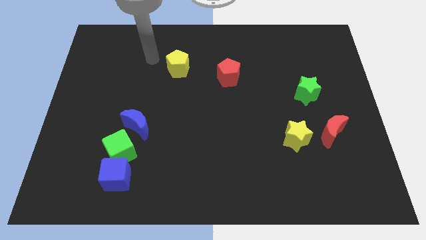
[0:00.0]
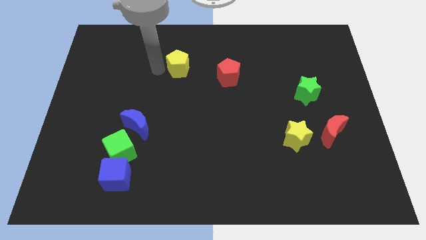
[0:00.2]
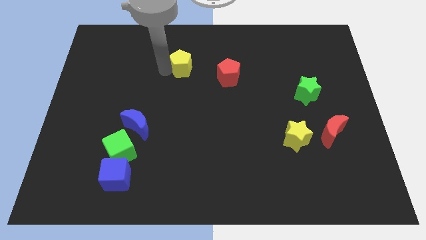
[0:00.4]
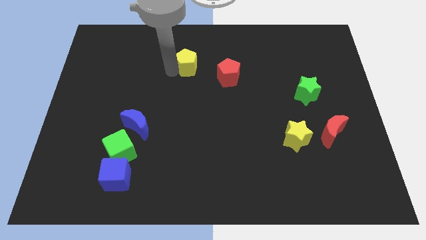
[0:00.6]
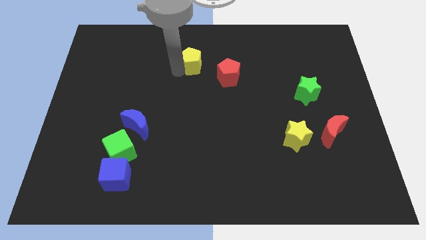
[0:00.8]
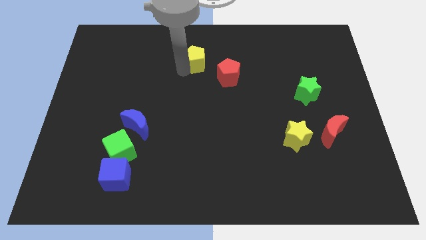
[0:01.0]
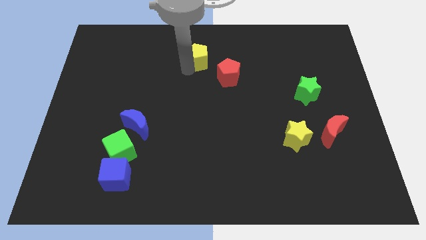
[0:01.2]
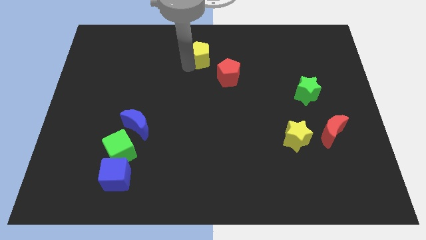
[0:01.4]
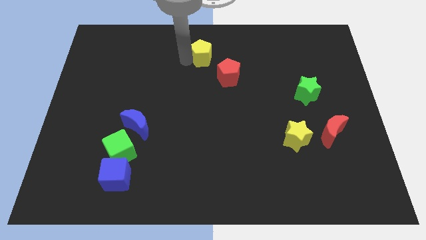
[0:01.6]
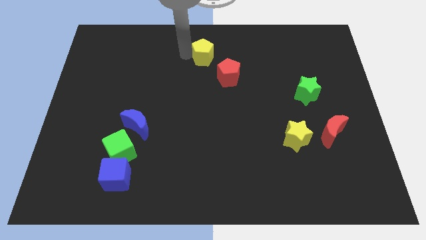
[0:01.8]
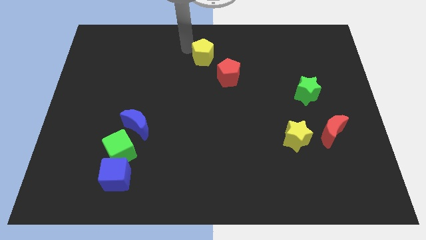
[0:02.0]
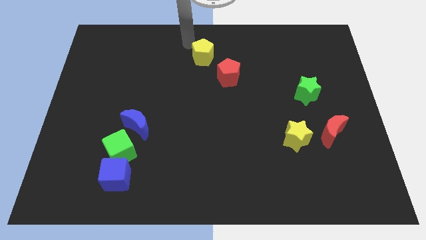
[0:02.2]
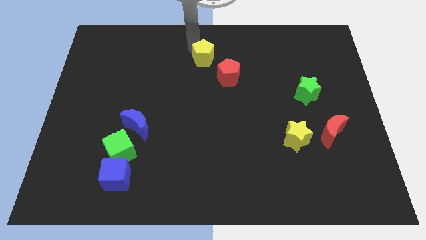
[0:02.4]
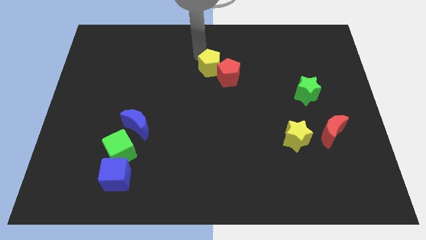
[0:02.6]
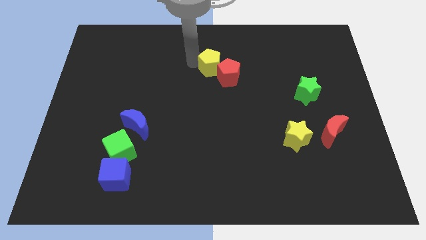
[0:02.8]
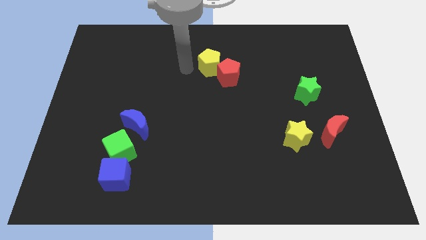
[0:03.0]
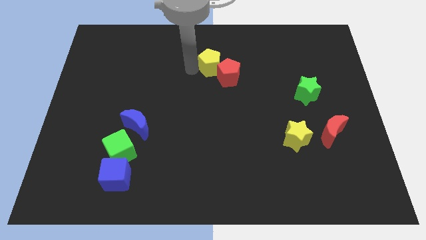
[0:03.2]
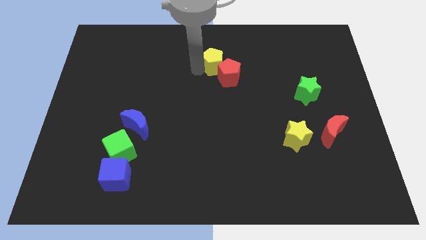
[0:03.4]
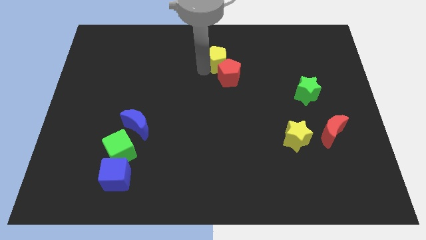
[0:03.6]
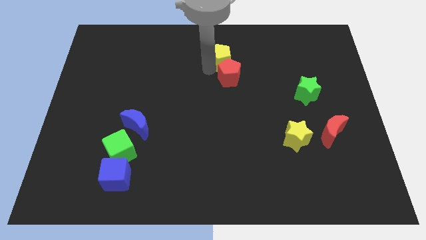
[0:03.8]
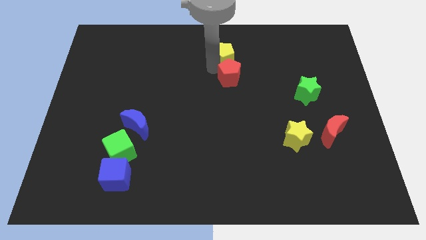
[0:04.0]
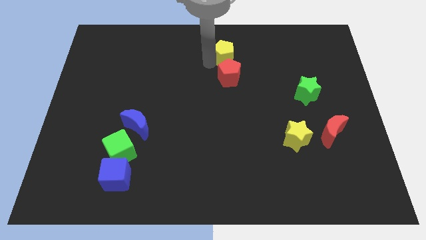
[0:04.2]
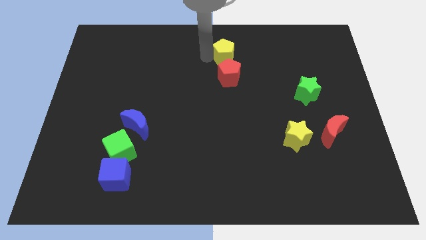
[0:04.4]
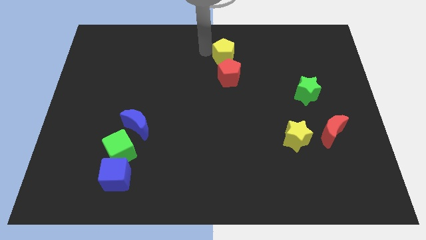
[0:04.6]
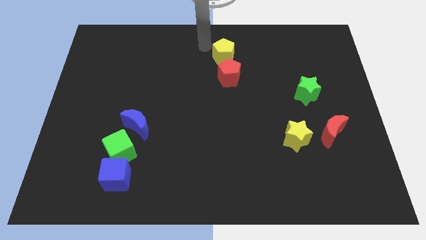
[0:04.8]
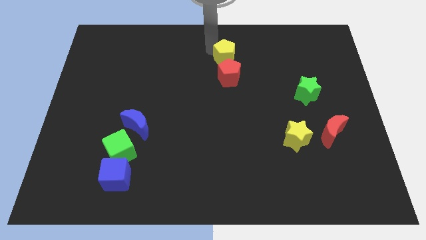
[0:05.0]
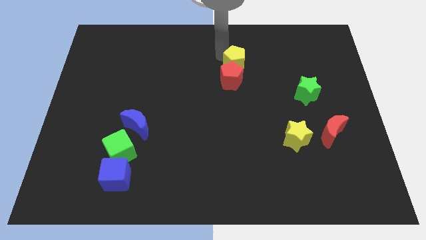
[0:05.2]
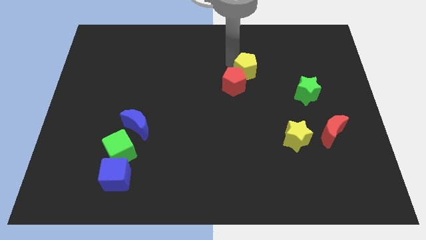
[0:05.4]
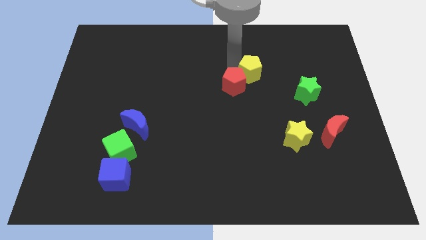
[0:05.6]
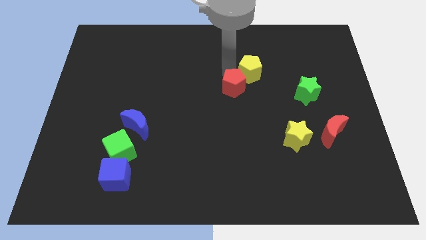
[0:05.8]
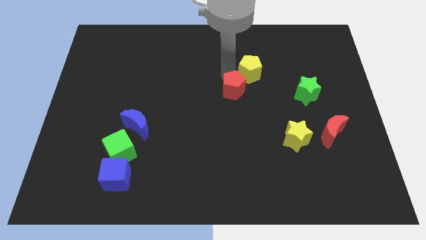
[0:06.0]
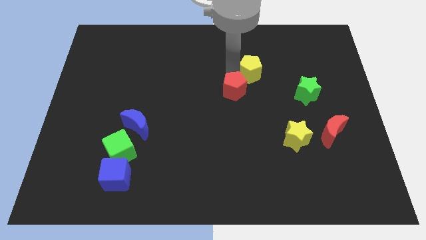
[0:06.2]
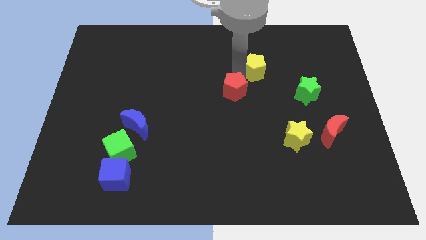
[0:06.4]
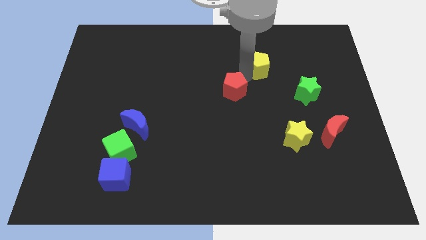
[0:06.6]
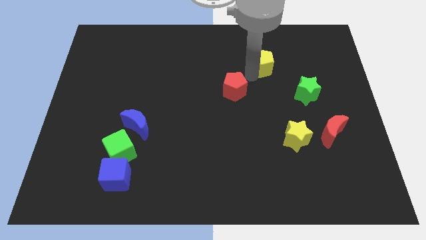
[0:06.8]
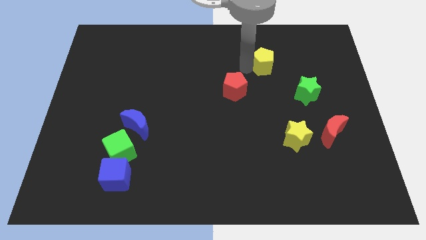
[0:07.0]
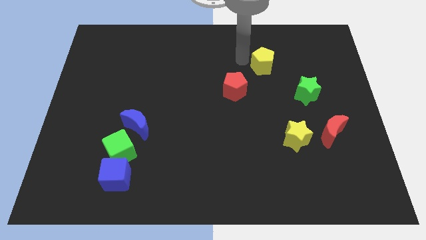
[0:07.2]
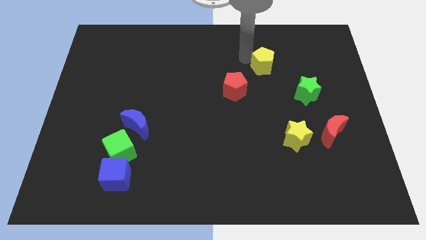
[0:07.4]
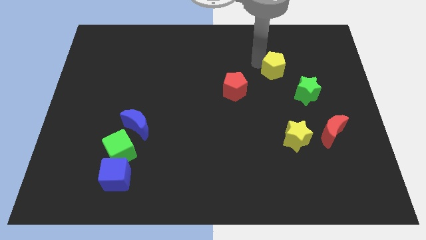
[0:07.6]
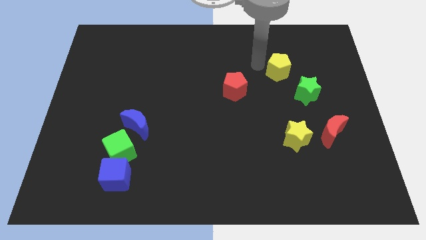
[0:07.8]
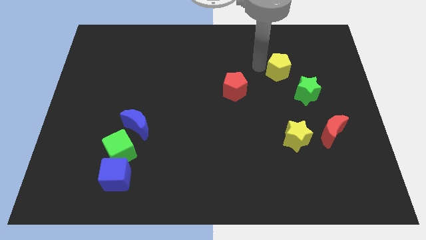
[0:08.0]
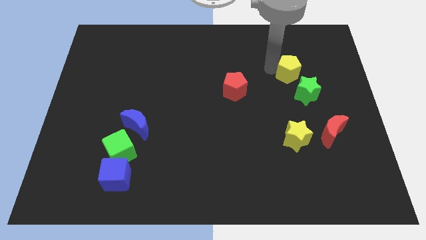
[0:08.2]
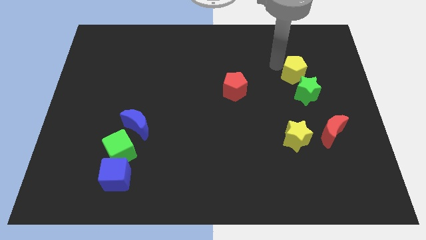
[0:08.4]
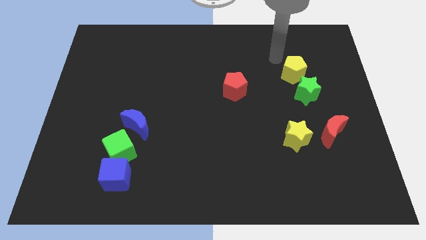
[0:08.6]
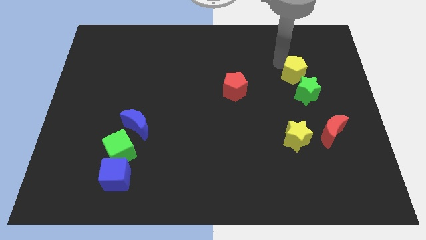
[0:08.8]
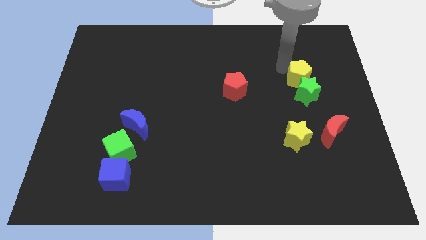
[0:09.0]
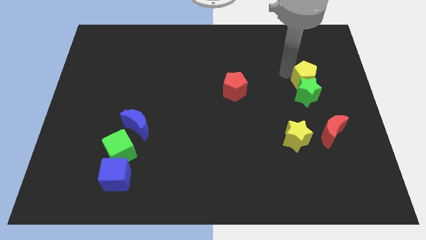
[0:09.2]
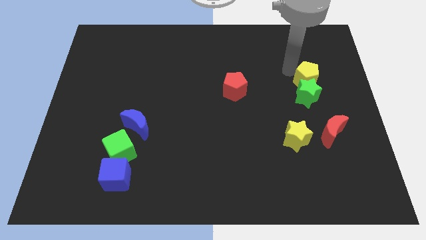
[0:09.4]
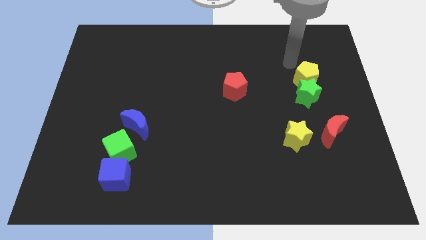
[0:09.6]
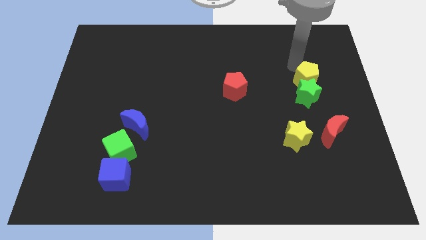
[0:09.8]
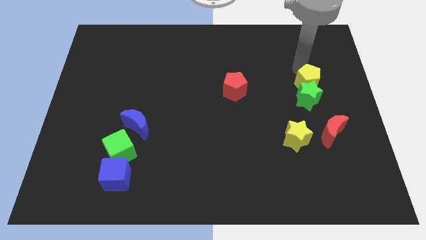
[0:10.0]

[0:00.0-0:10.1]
put the yellow pentagon above the red moon

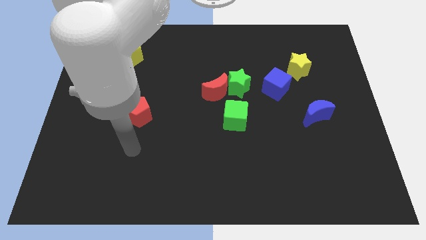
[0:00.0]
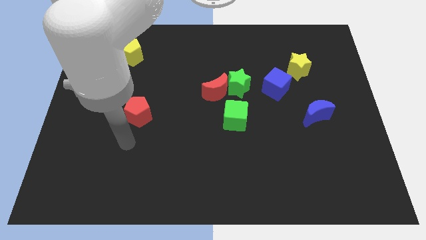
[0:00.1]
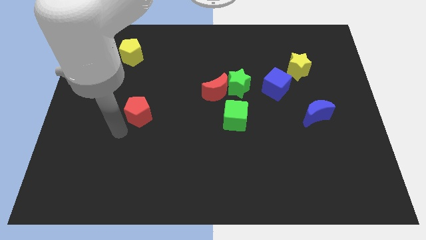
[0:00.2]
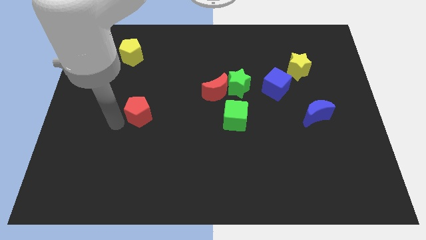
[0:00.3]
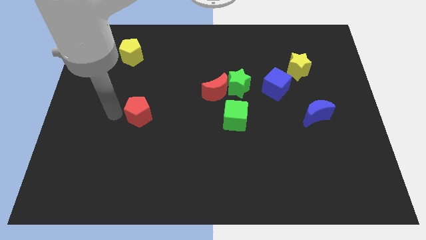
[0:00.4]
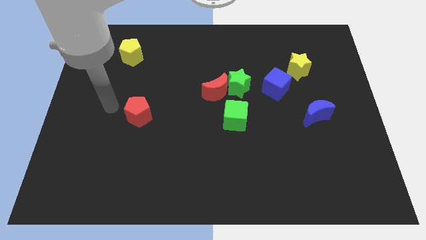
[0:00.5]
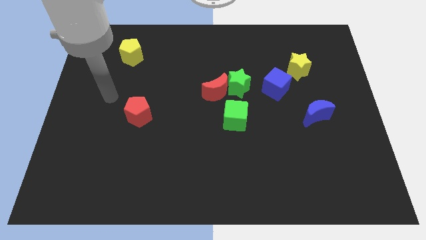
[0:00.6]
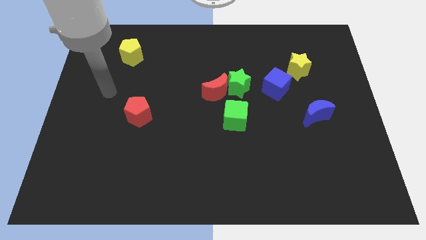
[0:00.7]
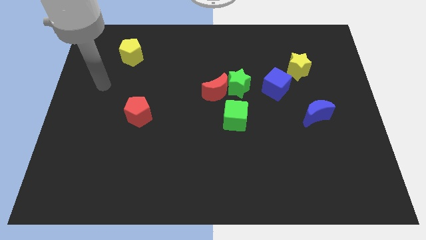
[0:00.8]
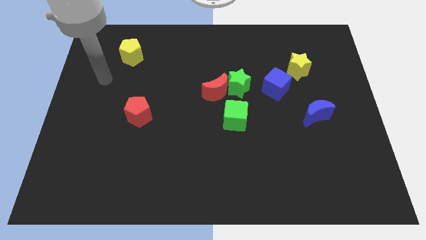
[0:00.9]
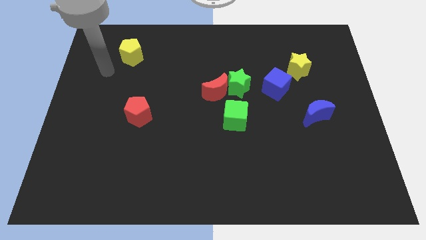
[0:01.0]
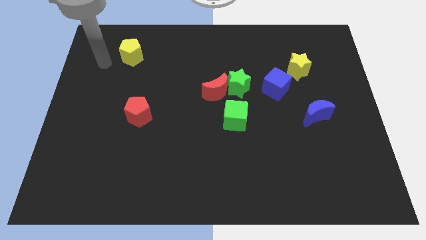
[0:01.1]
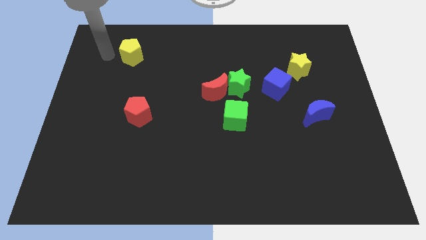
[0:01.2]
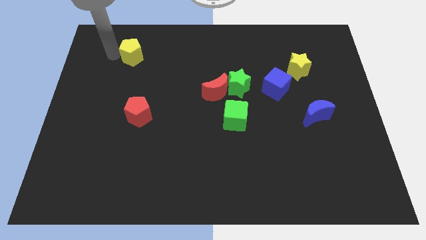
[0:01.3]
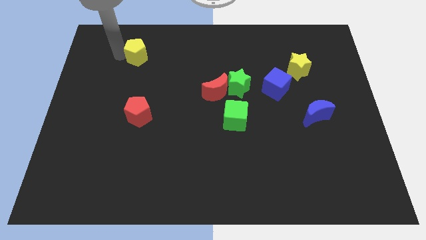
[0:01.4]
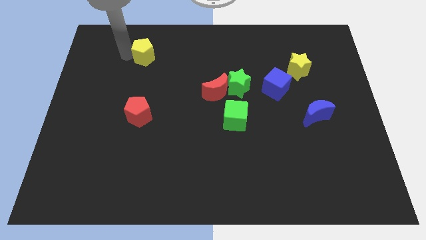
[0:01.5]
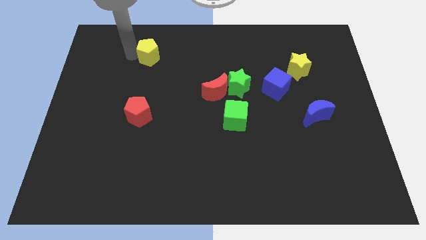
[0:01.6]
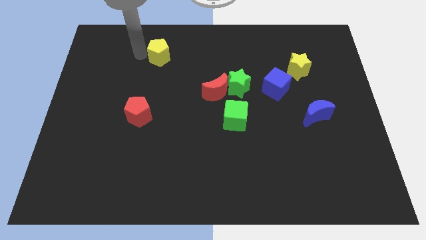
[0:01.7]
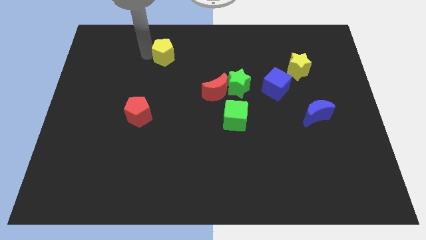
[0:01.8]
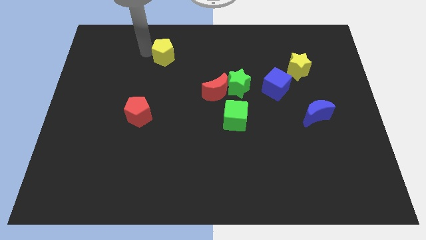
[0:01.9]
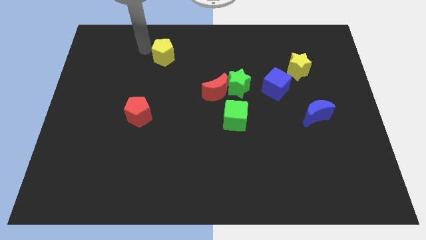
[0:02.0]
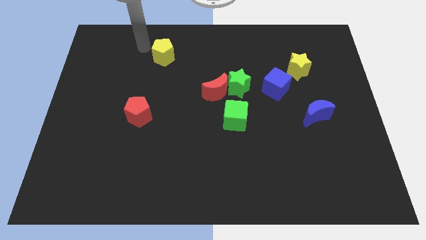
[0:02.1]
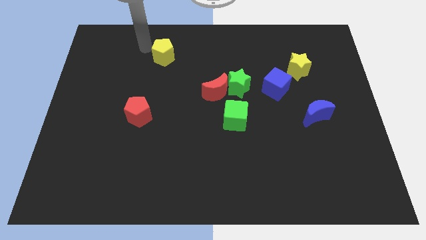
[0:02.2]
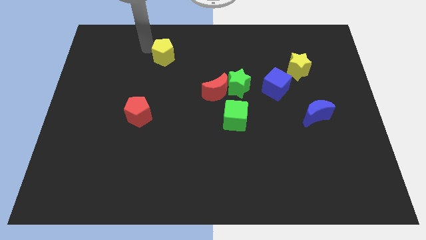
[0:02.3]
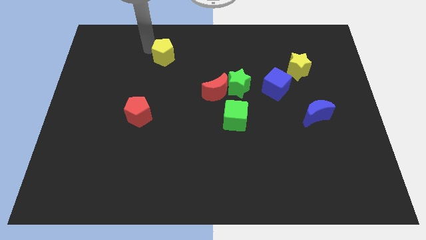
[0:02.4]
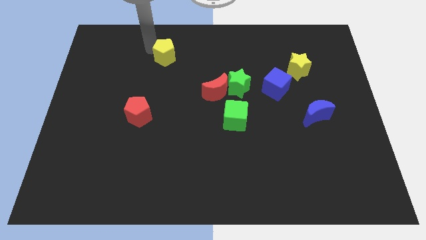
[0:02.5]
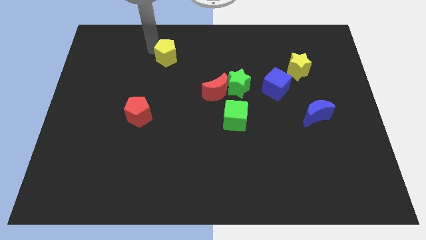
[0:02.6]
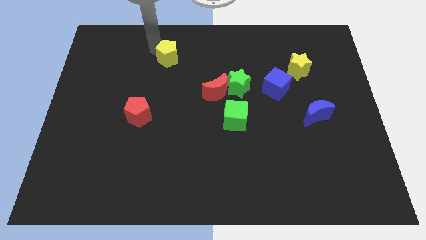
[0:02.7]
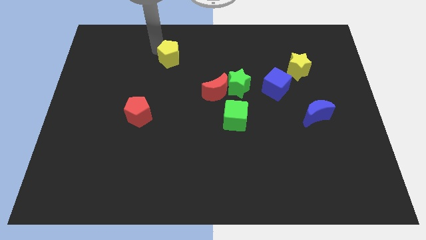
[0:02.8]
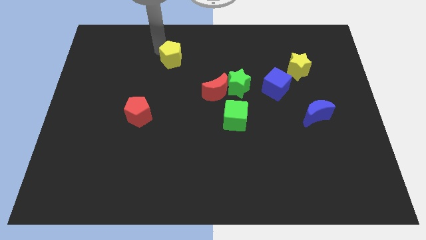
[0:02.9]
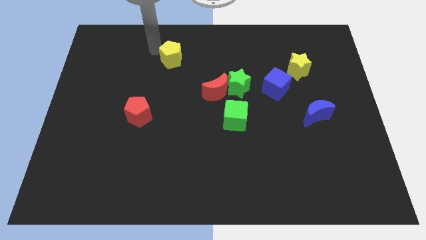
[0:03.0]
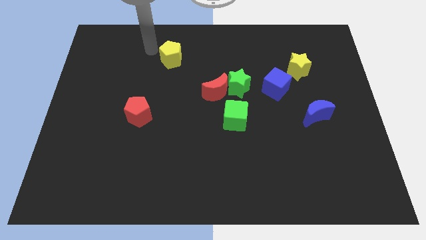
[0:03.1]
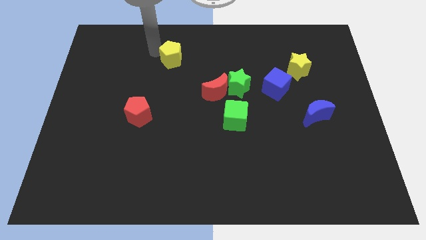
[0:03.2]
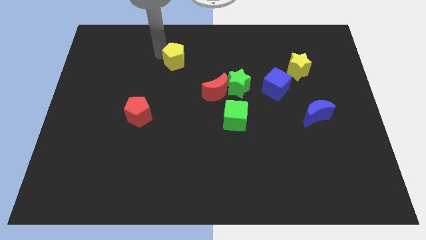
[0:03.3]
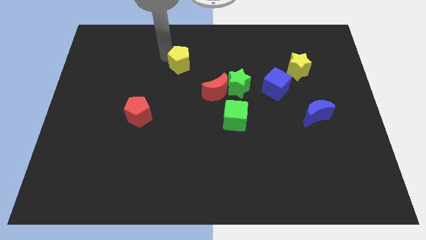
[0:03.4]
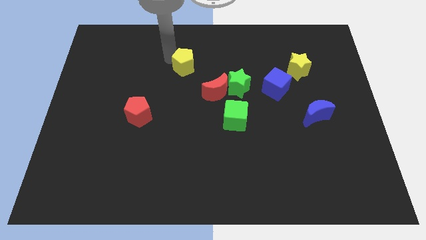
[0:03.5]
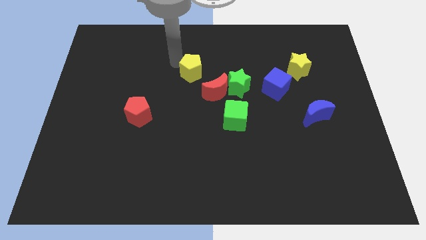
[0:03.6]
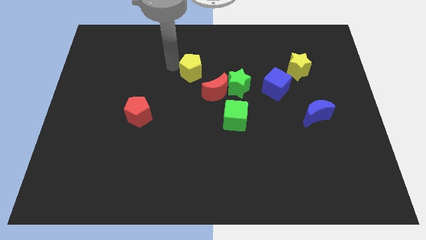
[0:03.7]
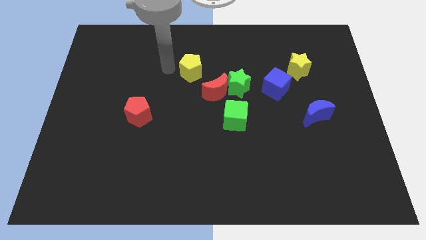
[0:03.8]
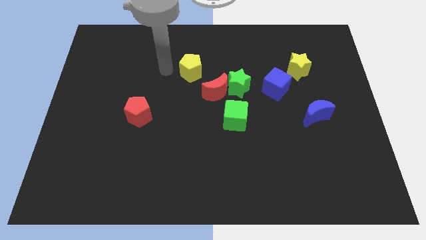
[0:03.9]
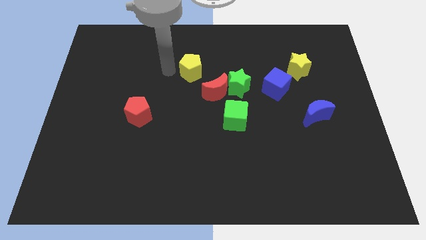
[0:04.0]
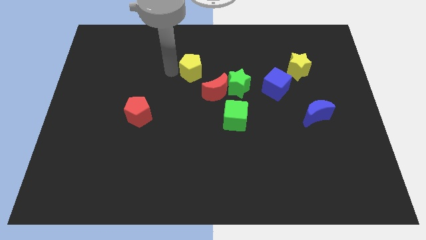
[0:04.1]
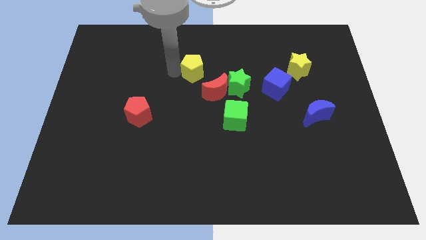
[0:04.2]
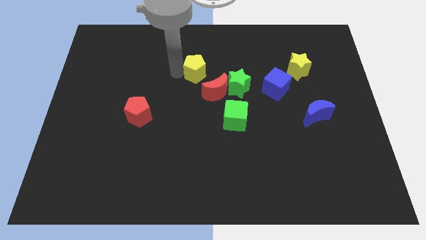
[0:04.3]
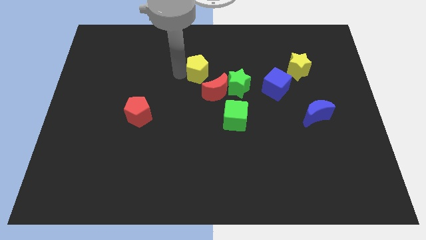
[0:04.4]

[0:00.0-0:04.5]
put the yellow pentagon to the top left of the green star
